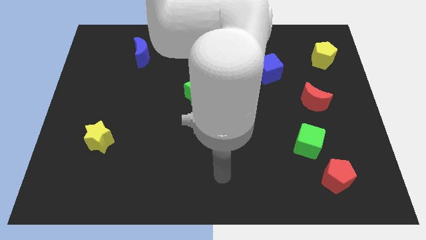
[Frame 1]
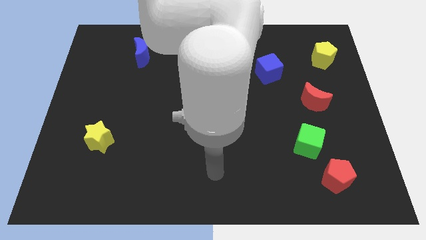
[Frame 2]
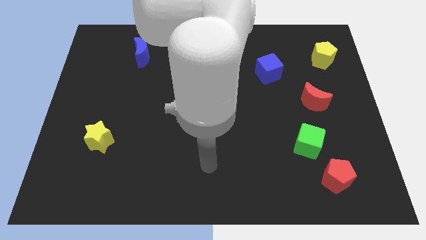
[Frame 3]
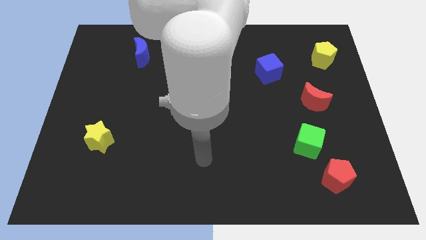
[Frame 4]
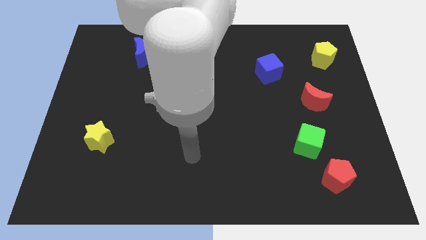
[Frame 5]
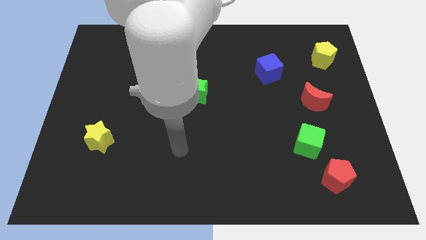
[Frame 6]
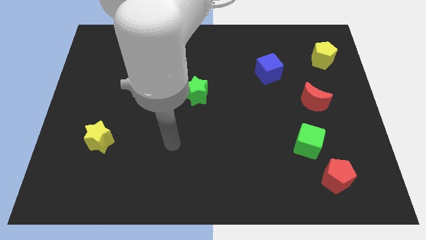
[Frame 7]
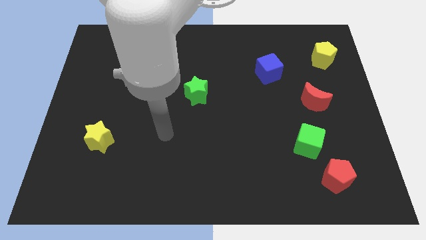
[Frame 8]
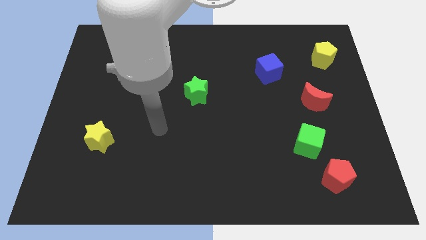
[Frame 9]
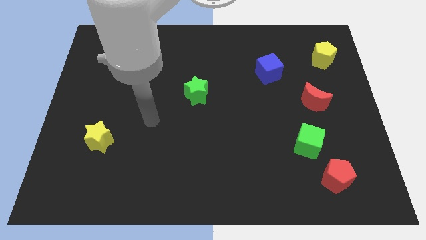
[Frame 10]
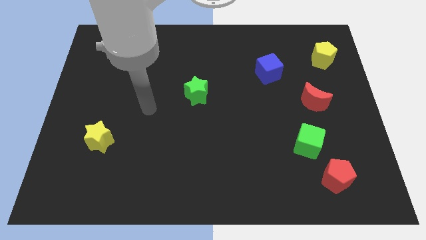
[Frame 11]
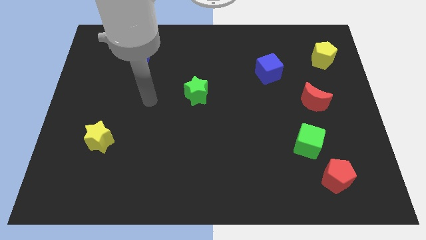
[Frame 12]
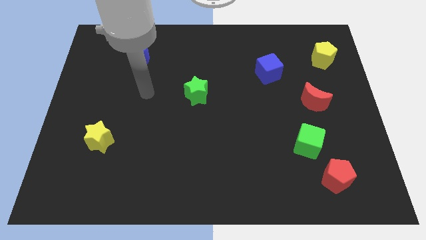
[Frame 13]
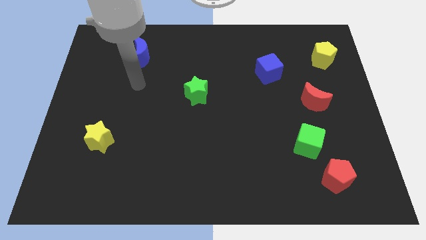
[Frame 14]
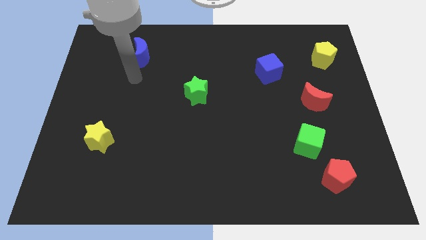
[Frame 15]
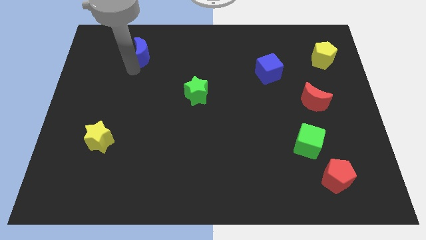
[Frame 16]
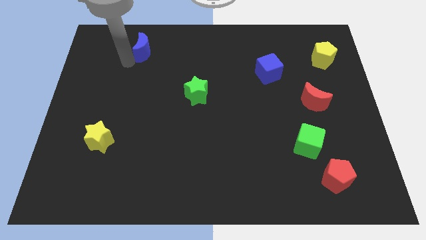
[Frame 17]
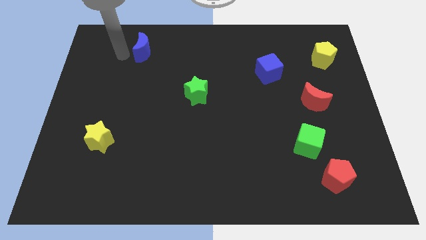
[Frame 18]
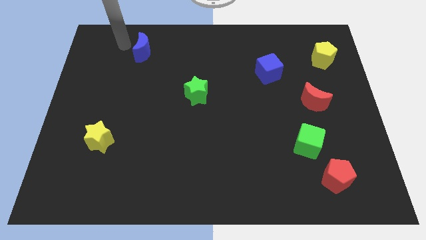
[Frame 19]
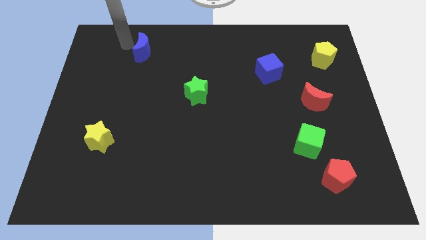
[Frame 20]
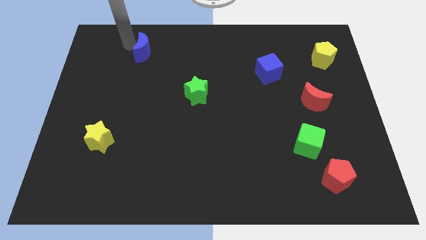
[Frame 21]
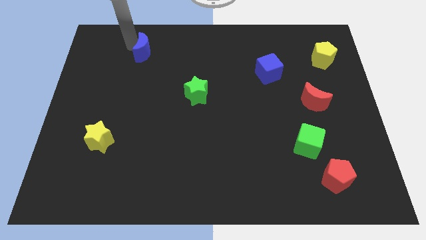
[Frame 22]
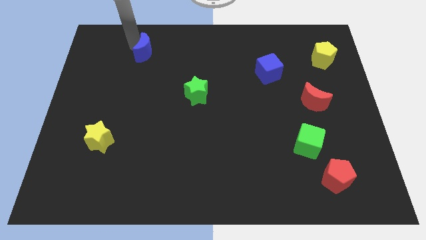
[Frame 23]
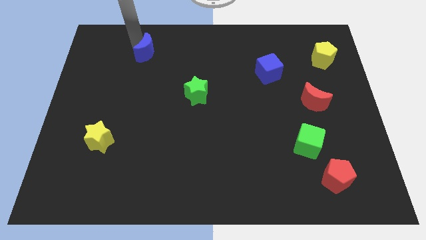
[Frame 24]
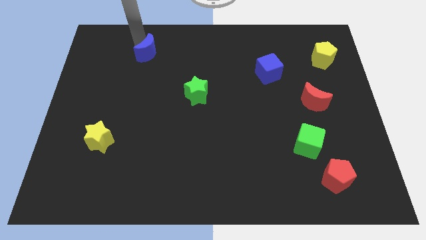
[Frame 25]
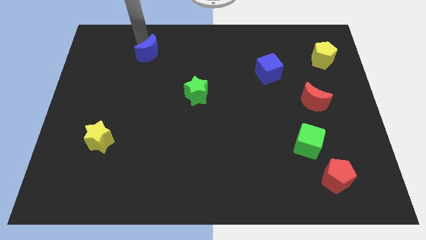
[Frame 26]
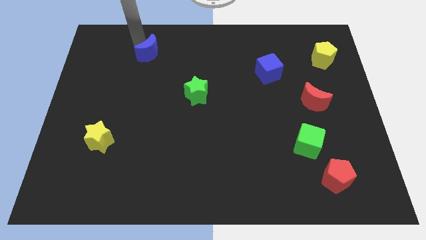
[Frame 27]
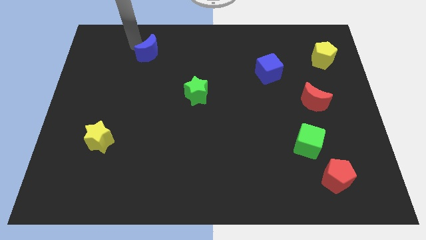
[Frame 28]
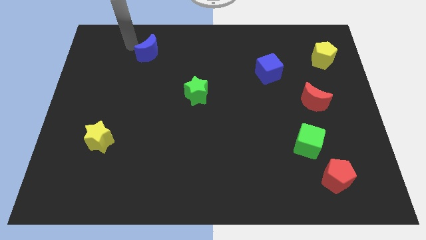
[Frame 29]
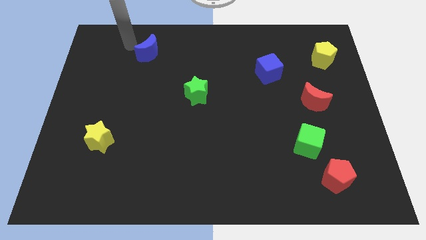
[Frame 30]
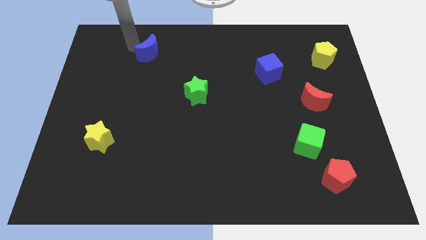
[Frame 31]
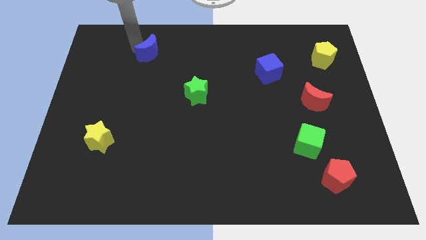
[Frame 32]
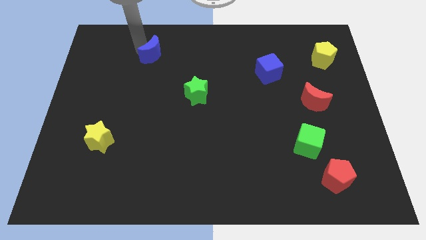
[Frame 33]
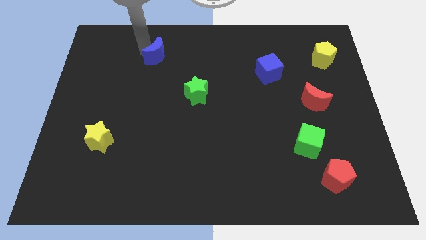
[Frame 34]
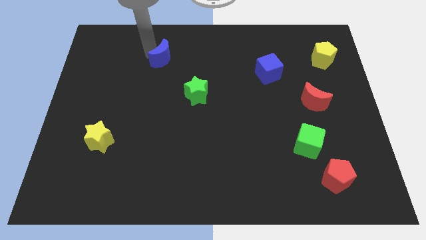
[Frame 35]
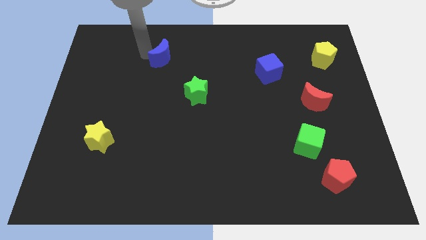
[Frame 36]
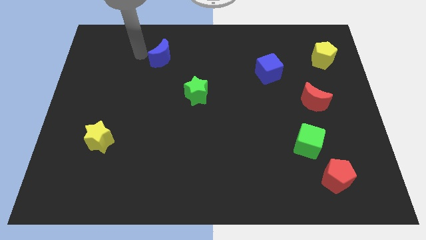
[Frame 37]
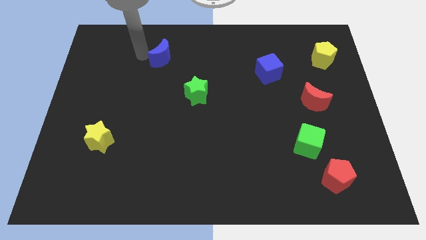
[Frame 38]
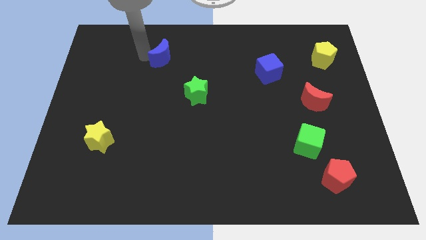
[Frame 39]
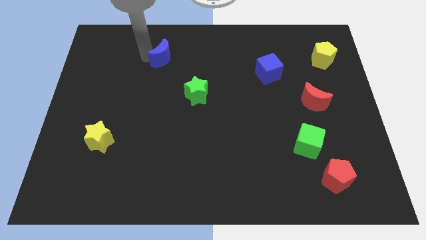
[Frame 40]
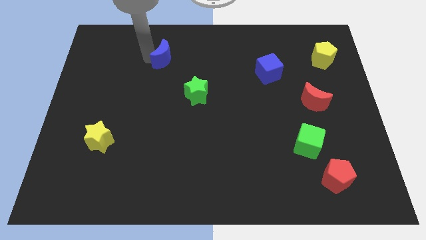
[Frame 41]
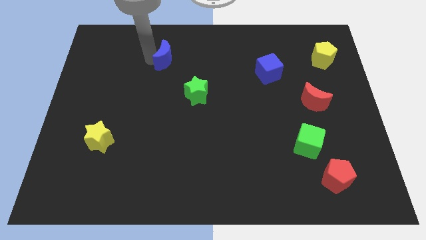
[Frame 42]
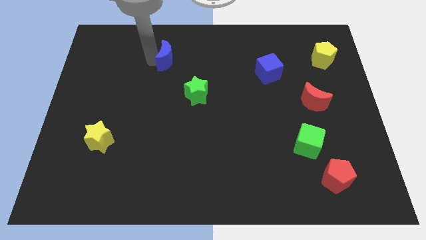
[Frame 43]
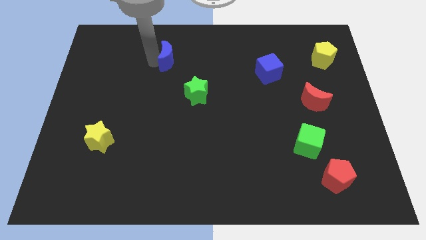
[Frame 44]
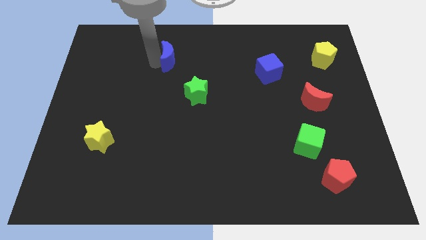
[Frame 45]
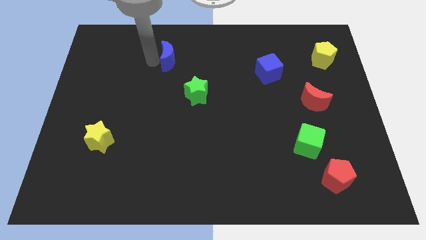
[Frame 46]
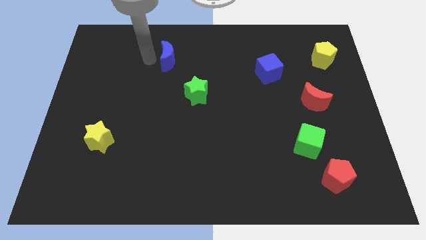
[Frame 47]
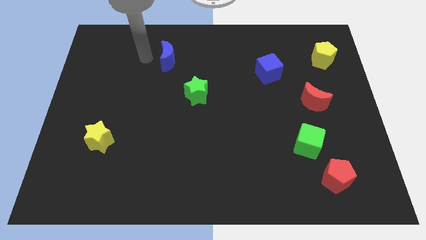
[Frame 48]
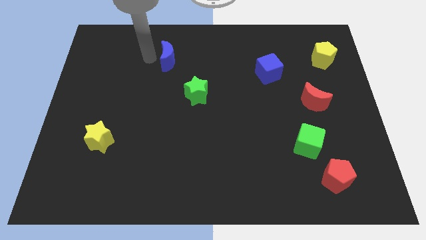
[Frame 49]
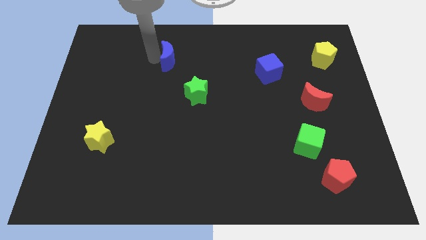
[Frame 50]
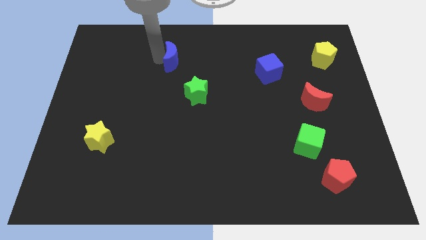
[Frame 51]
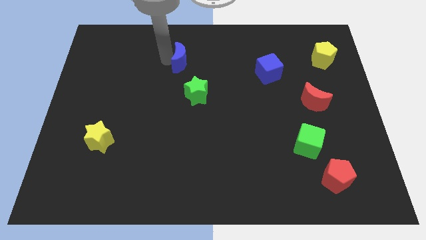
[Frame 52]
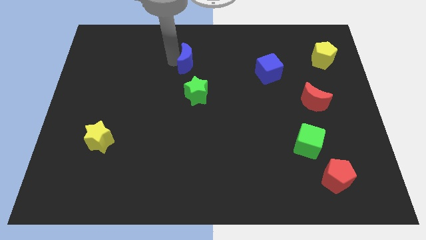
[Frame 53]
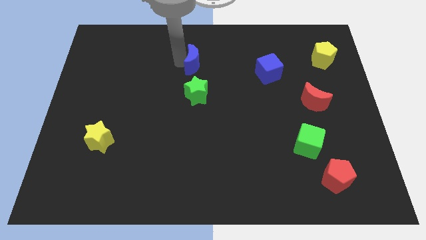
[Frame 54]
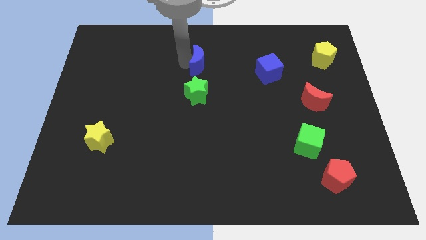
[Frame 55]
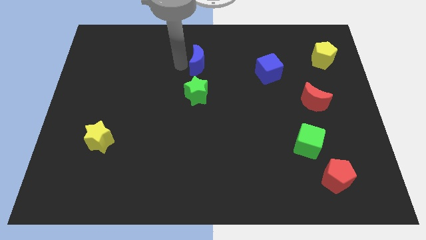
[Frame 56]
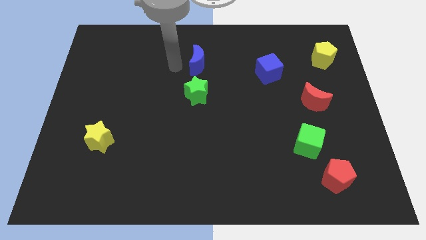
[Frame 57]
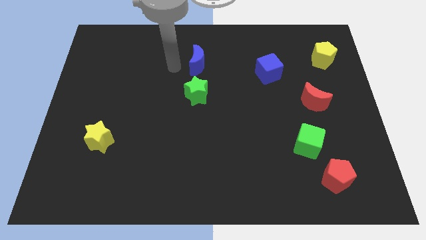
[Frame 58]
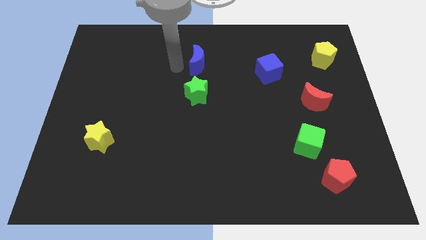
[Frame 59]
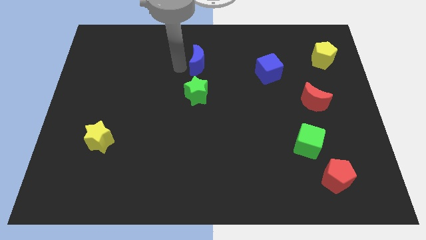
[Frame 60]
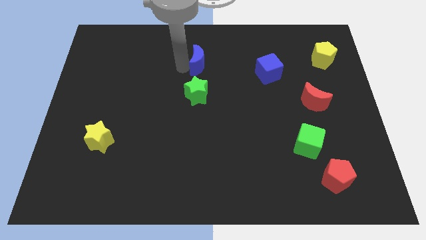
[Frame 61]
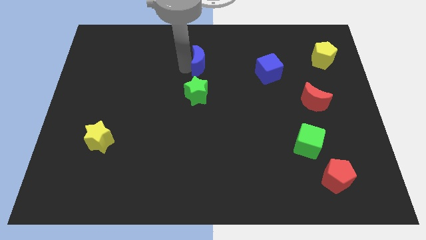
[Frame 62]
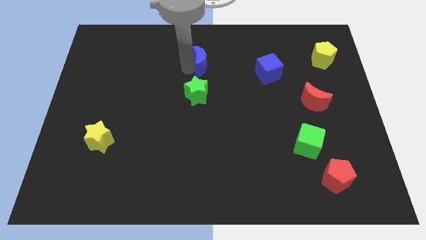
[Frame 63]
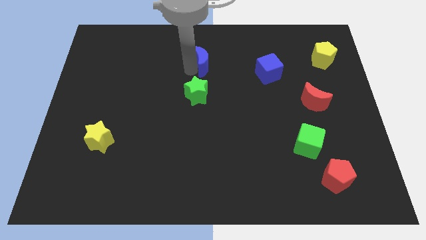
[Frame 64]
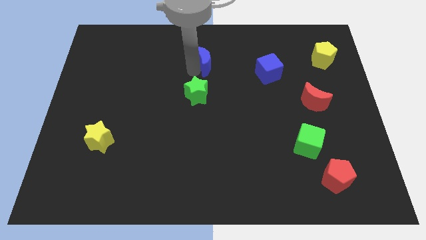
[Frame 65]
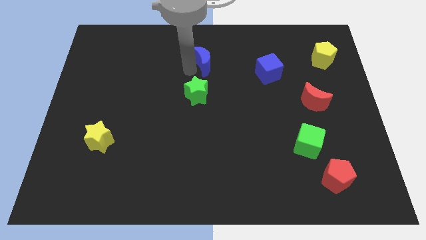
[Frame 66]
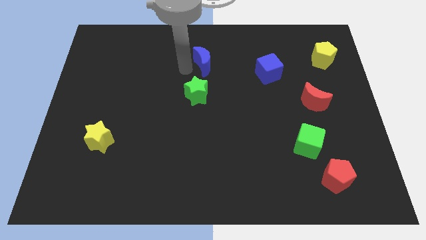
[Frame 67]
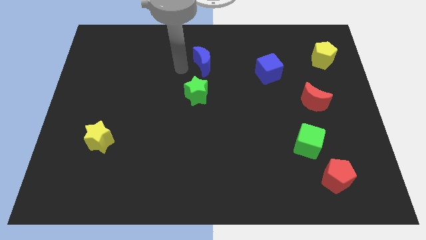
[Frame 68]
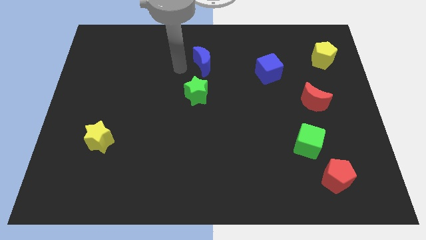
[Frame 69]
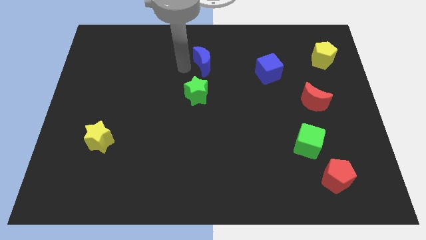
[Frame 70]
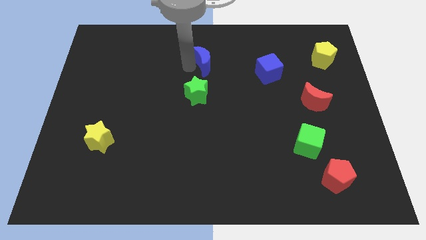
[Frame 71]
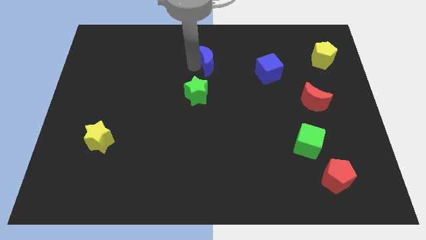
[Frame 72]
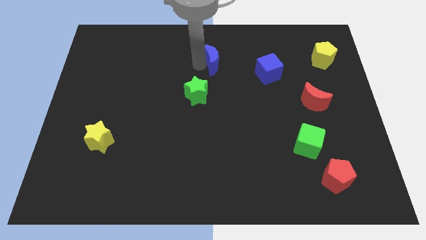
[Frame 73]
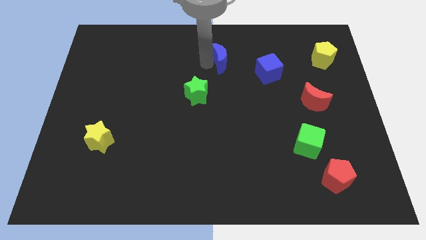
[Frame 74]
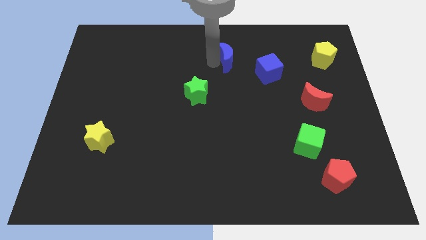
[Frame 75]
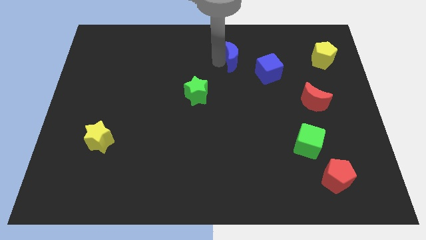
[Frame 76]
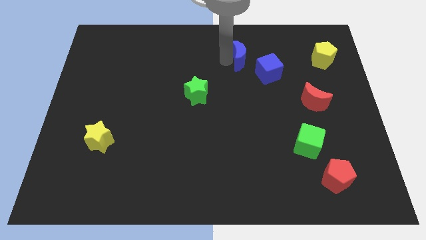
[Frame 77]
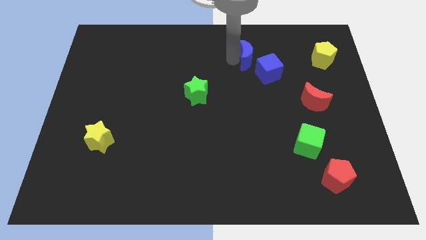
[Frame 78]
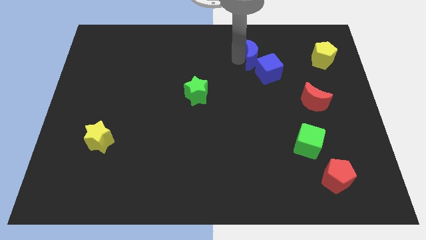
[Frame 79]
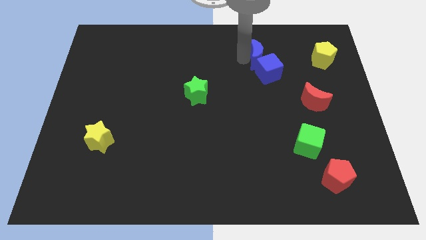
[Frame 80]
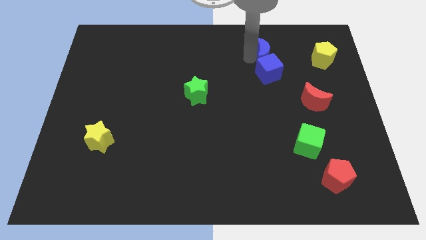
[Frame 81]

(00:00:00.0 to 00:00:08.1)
move the blue moon to the left side of the yellow pentagon
